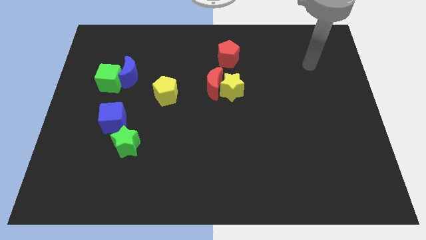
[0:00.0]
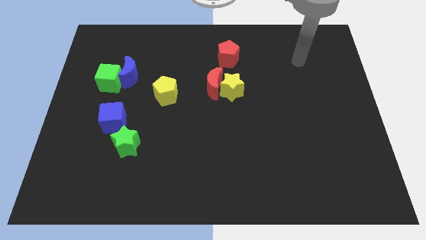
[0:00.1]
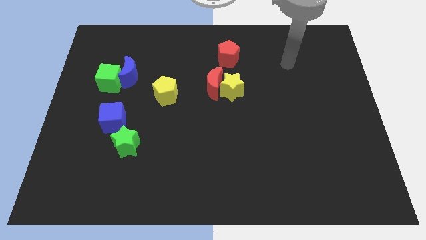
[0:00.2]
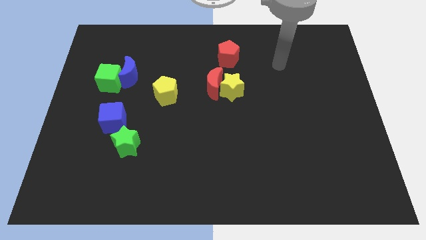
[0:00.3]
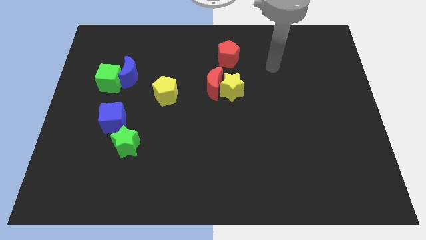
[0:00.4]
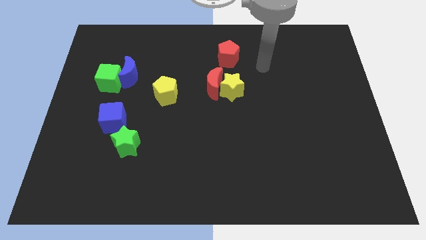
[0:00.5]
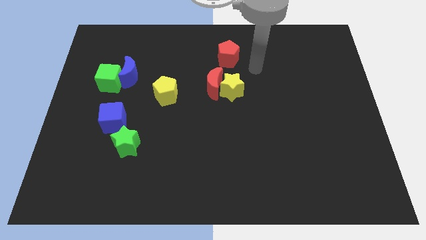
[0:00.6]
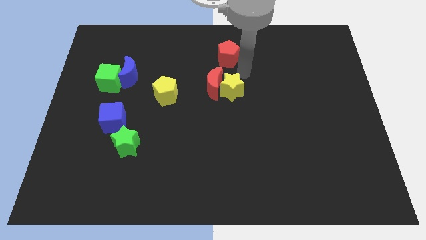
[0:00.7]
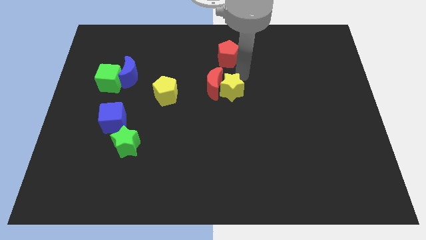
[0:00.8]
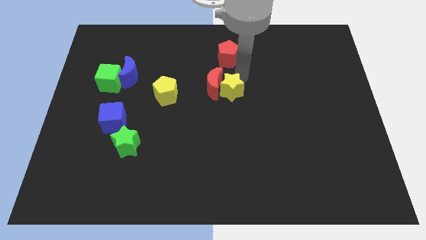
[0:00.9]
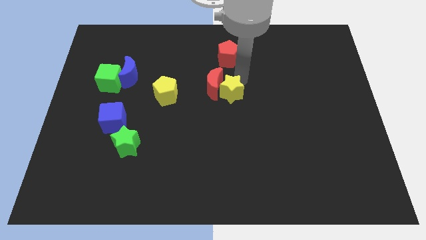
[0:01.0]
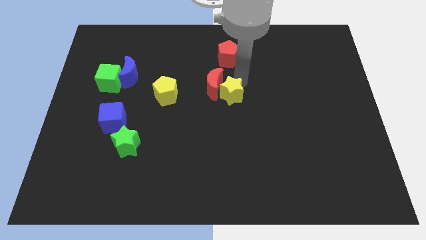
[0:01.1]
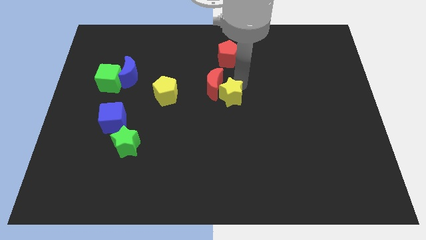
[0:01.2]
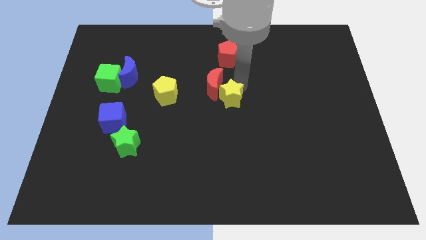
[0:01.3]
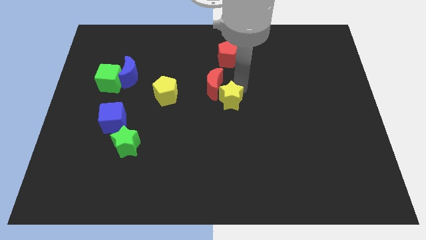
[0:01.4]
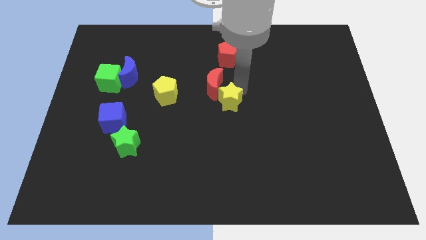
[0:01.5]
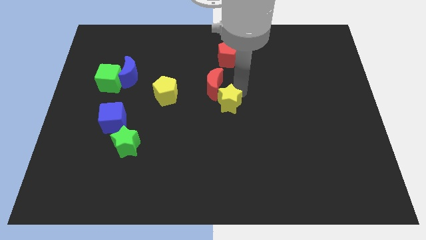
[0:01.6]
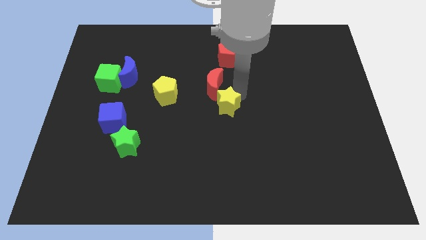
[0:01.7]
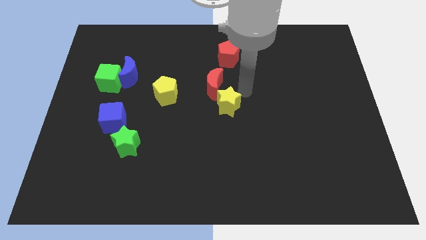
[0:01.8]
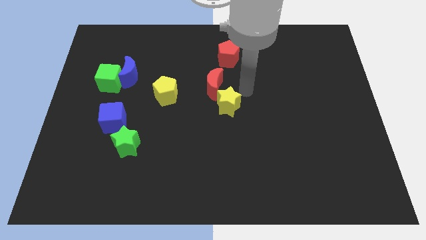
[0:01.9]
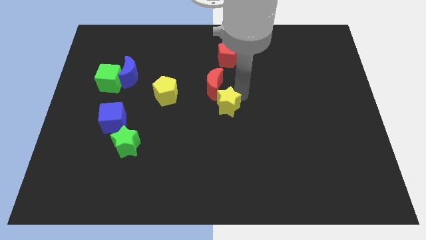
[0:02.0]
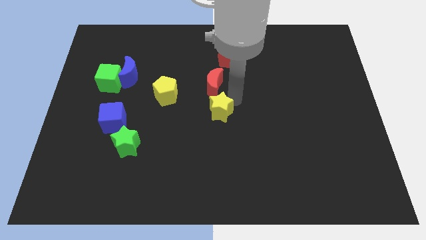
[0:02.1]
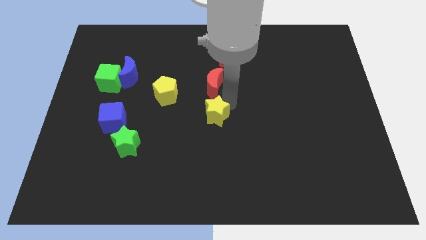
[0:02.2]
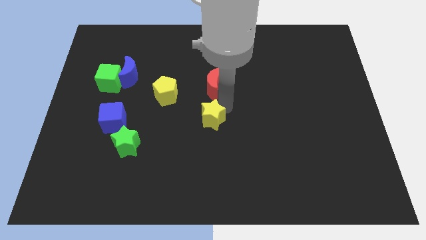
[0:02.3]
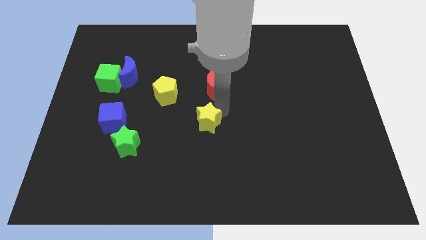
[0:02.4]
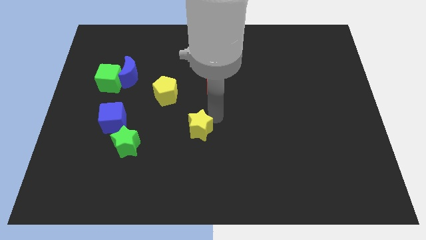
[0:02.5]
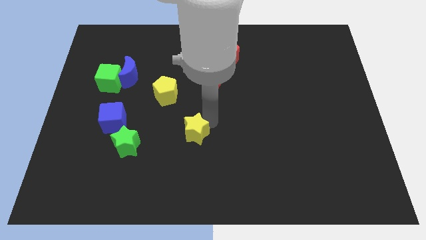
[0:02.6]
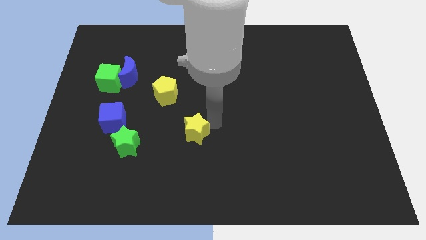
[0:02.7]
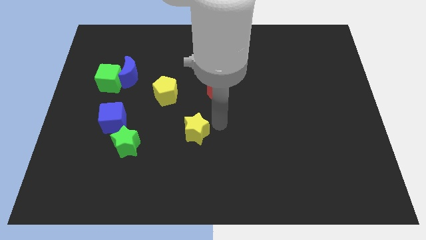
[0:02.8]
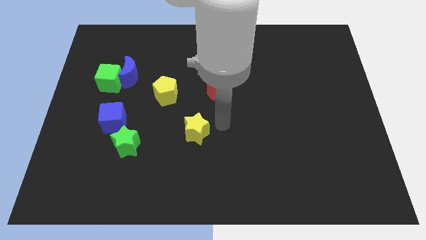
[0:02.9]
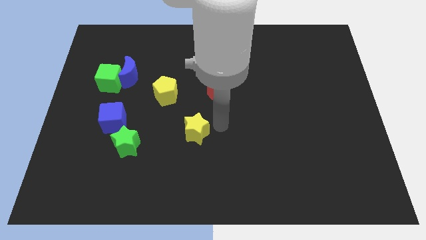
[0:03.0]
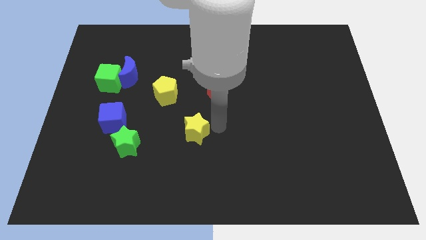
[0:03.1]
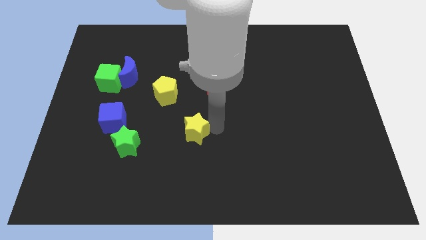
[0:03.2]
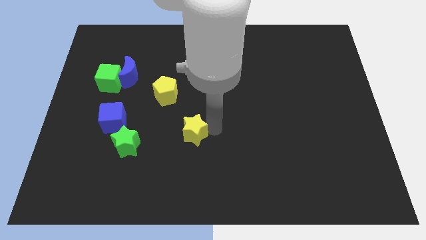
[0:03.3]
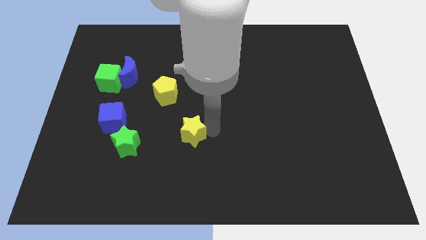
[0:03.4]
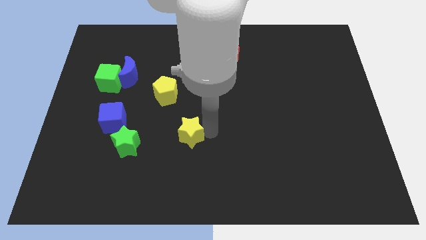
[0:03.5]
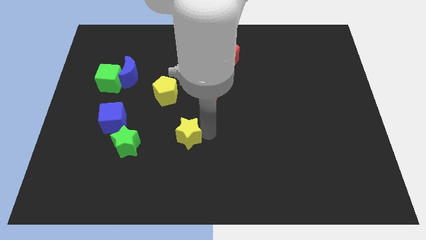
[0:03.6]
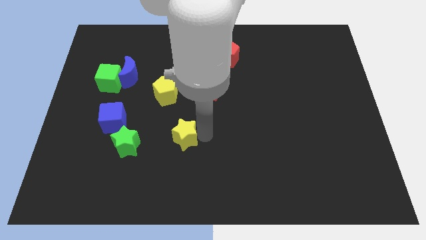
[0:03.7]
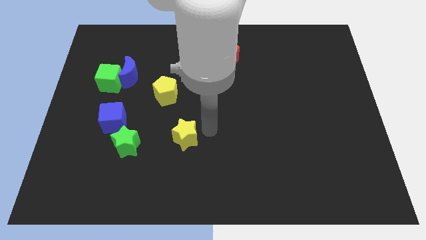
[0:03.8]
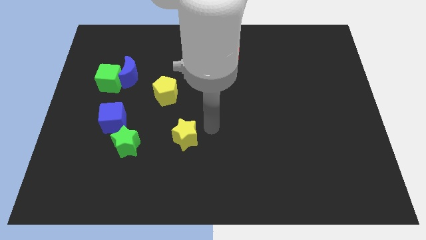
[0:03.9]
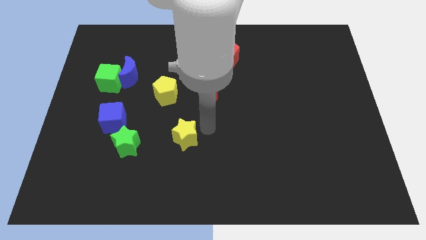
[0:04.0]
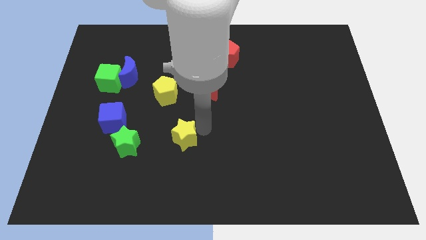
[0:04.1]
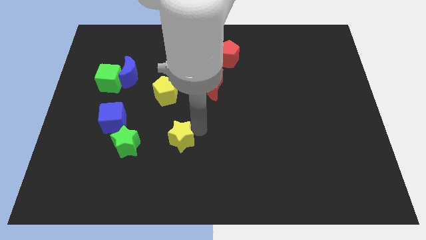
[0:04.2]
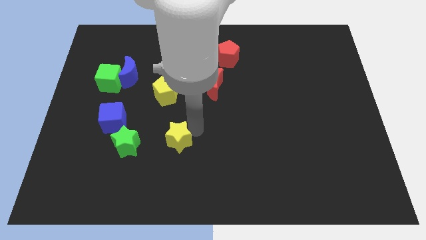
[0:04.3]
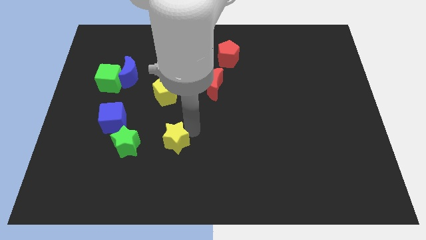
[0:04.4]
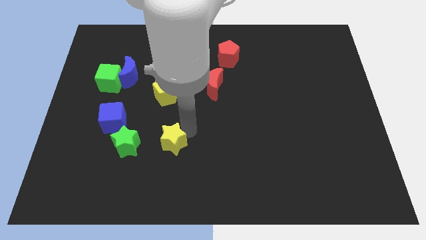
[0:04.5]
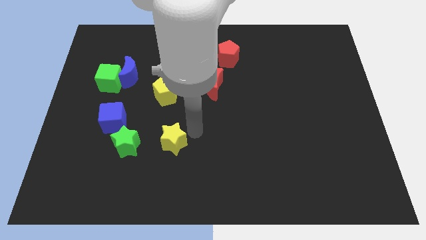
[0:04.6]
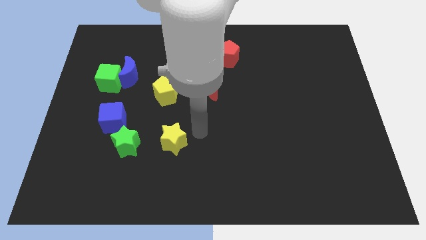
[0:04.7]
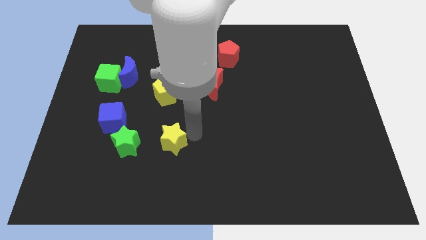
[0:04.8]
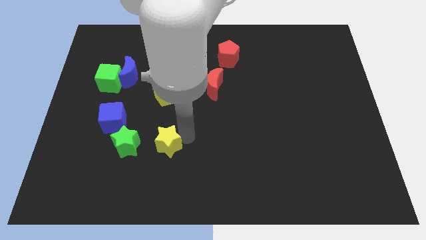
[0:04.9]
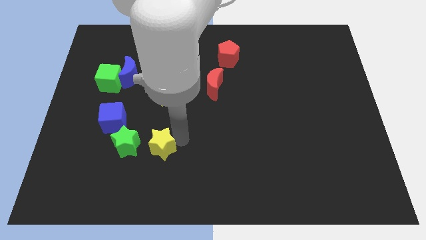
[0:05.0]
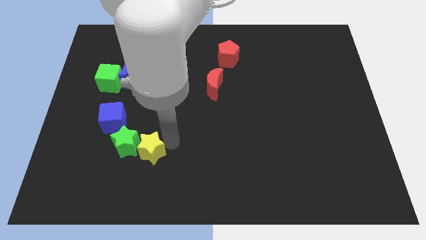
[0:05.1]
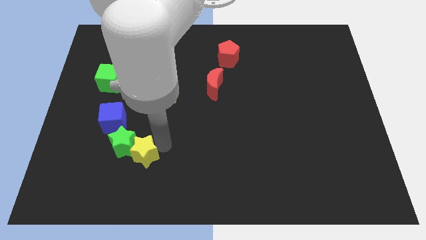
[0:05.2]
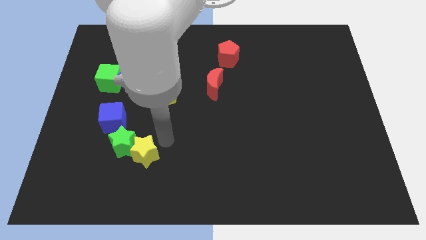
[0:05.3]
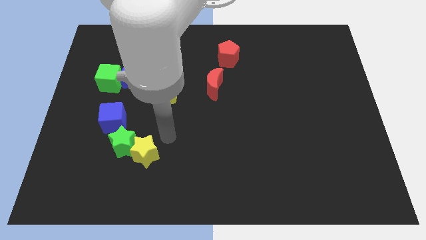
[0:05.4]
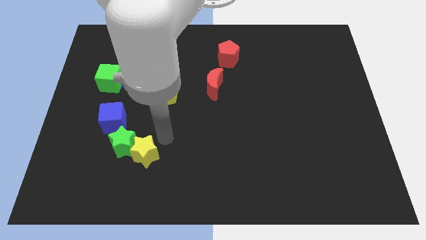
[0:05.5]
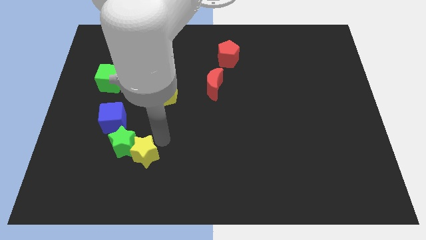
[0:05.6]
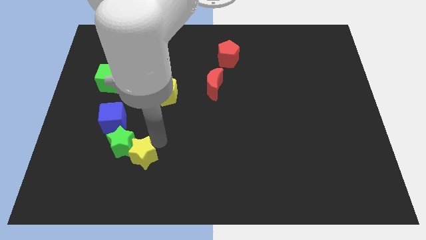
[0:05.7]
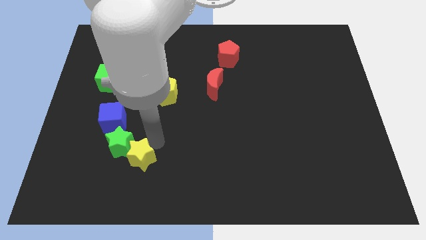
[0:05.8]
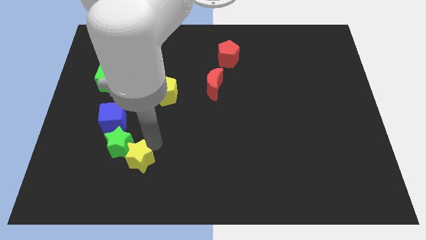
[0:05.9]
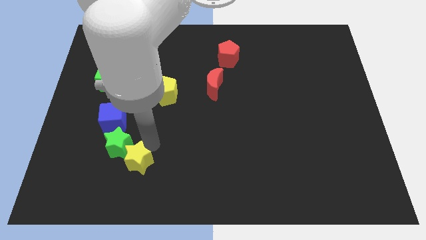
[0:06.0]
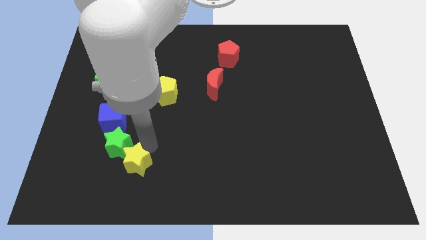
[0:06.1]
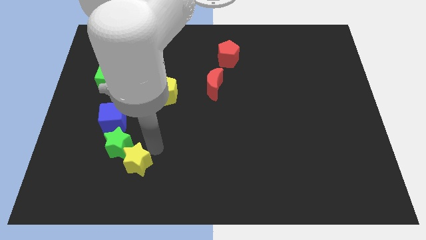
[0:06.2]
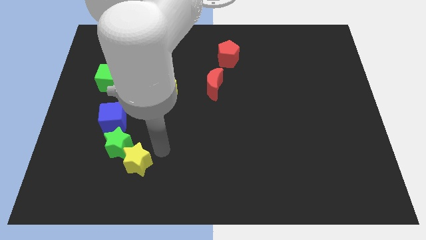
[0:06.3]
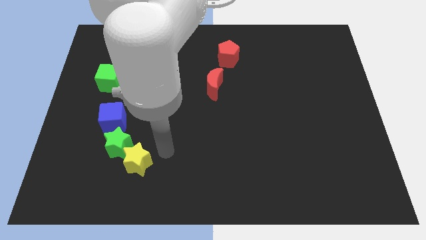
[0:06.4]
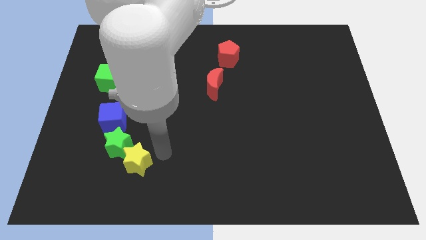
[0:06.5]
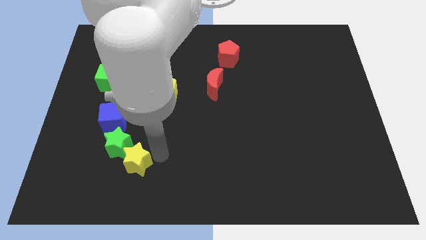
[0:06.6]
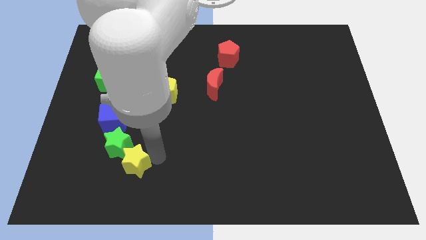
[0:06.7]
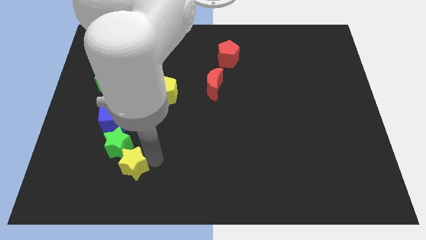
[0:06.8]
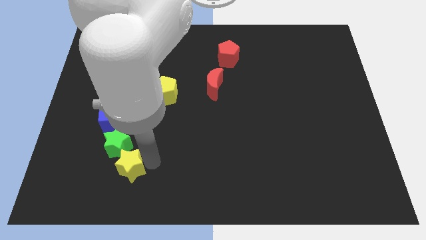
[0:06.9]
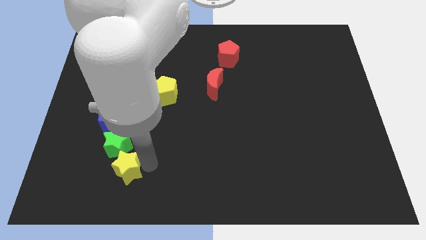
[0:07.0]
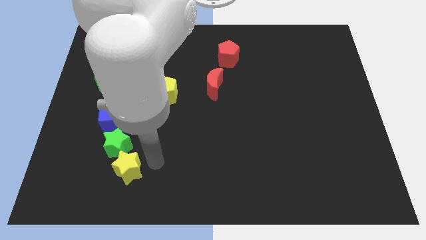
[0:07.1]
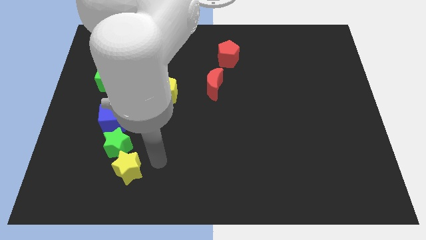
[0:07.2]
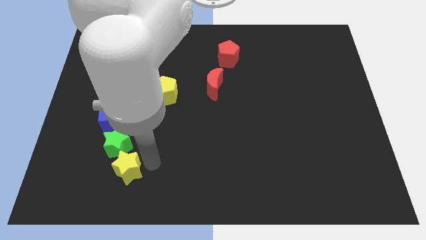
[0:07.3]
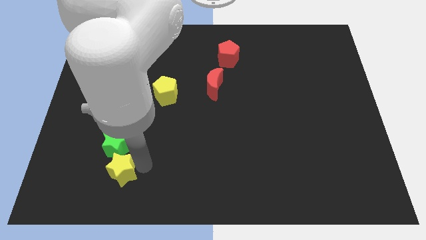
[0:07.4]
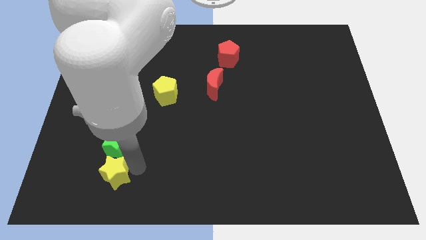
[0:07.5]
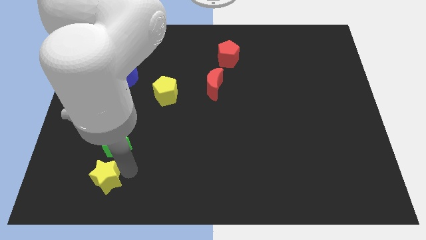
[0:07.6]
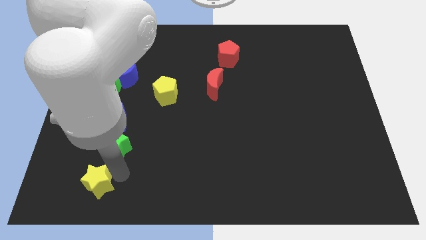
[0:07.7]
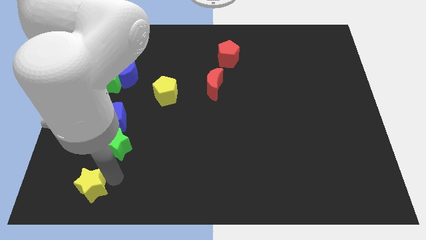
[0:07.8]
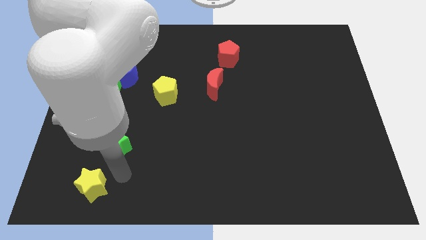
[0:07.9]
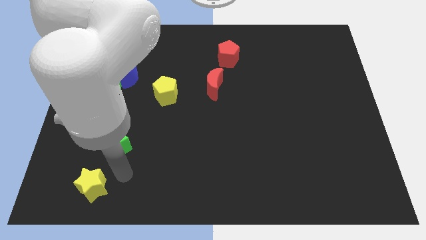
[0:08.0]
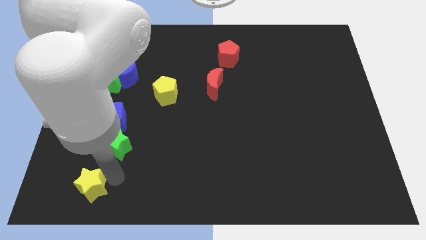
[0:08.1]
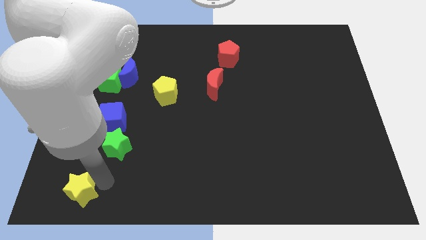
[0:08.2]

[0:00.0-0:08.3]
push the yellow star to the lower left corner
